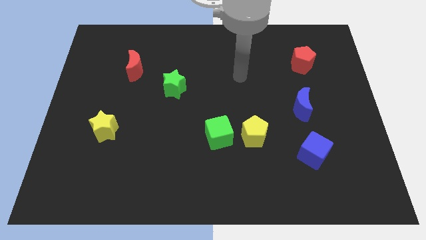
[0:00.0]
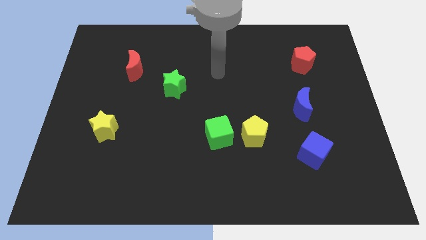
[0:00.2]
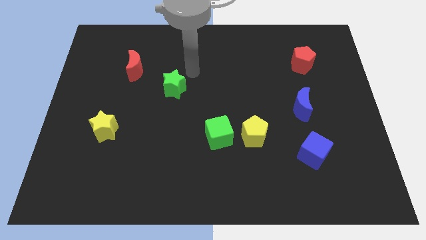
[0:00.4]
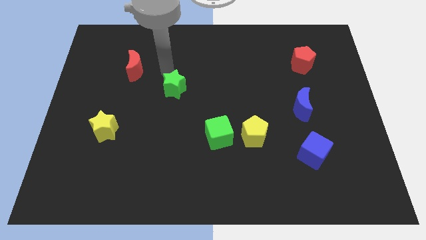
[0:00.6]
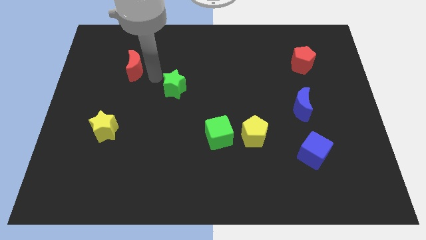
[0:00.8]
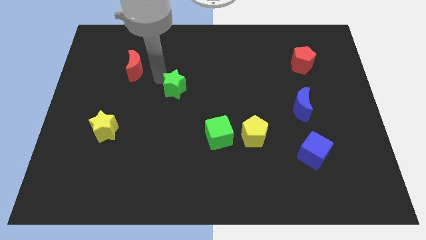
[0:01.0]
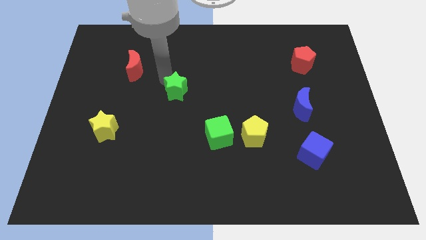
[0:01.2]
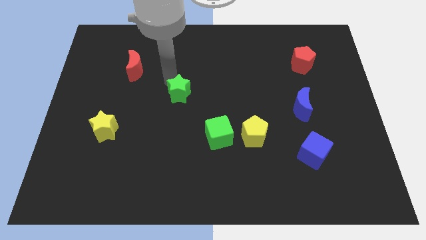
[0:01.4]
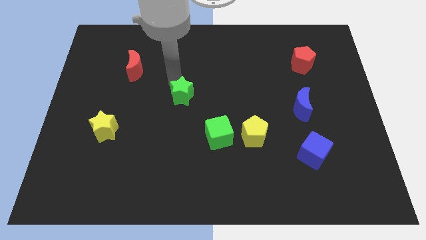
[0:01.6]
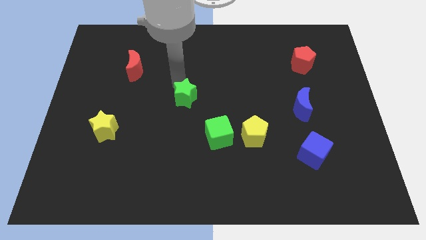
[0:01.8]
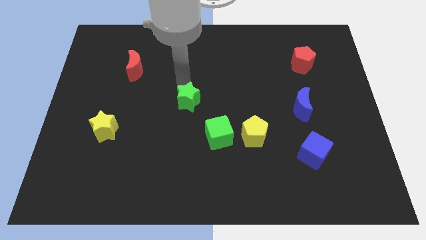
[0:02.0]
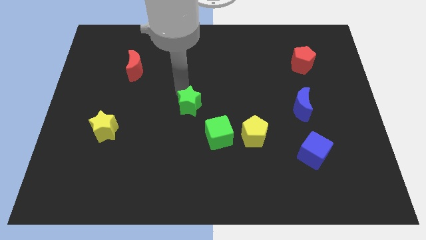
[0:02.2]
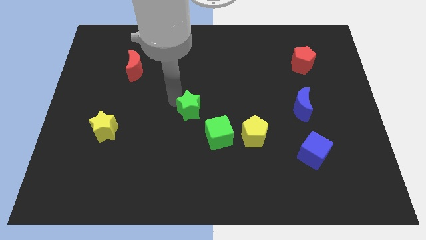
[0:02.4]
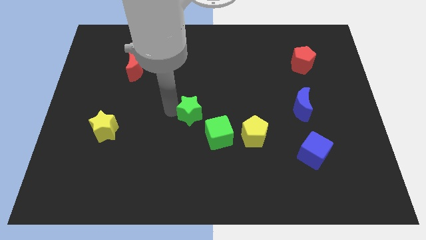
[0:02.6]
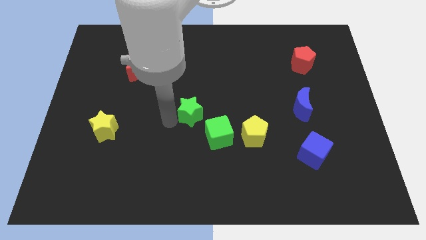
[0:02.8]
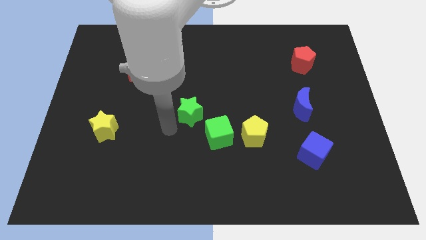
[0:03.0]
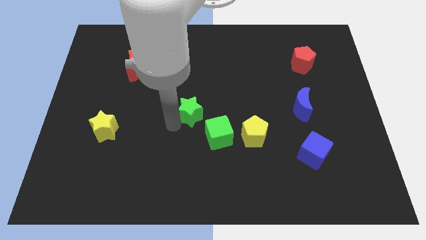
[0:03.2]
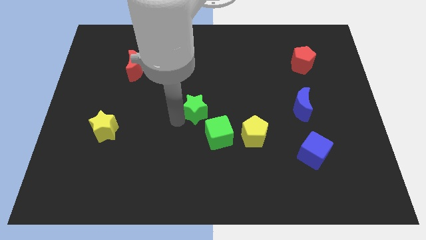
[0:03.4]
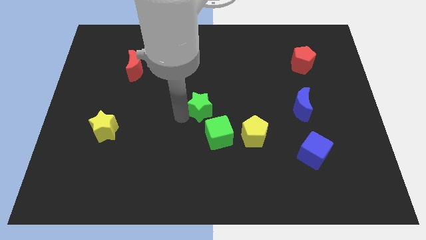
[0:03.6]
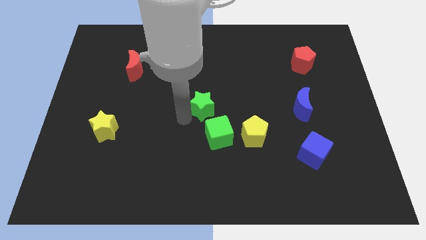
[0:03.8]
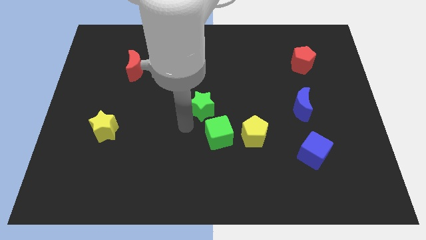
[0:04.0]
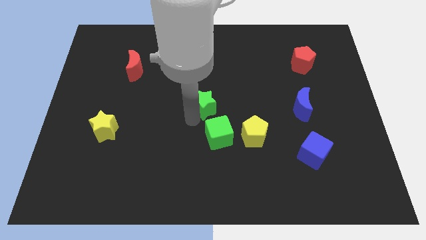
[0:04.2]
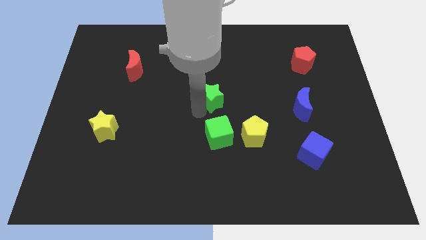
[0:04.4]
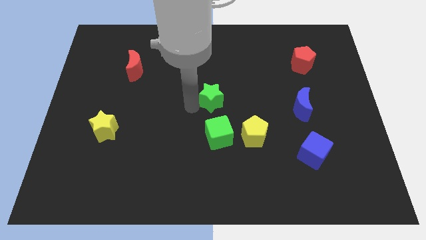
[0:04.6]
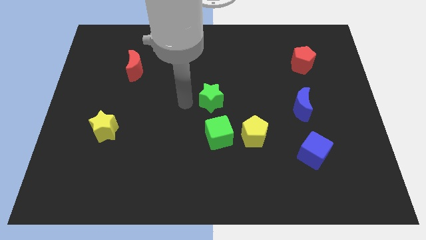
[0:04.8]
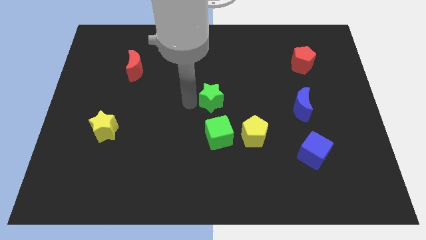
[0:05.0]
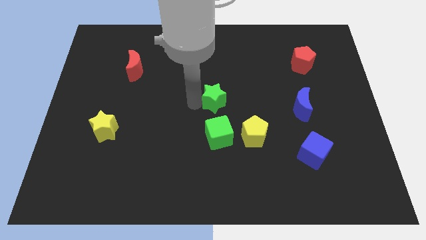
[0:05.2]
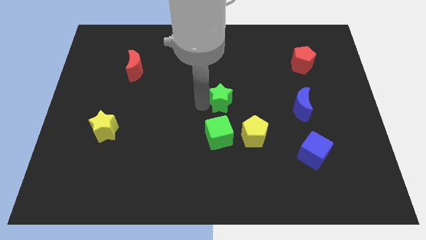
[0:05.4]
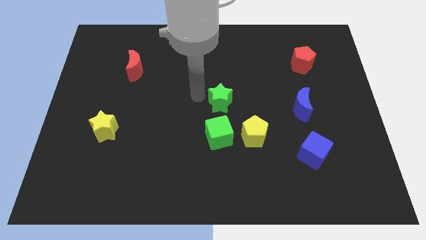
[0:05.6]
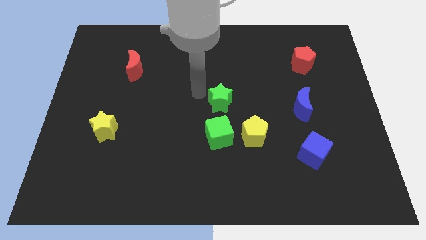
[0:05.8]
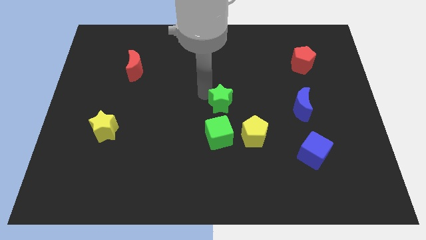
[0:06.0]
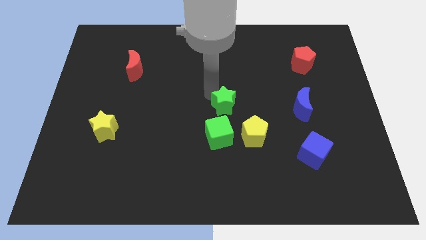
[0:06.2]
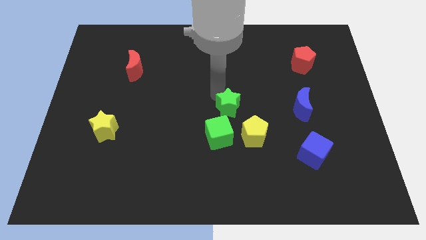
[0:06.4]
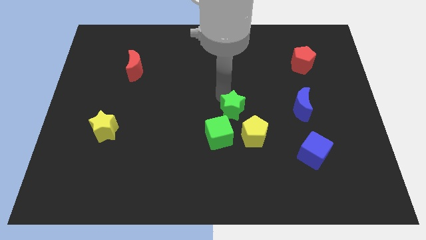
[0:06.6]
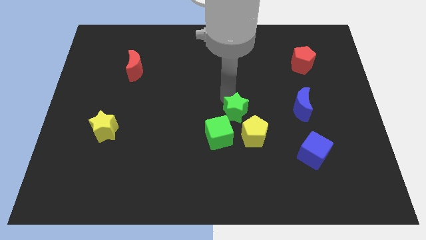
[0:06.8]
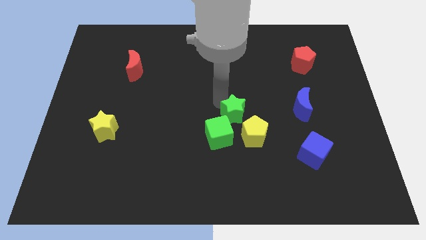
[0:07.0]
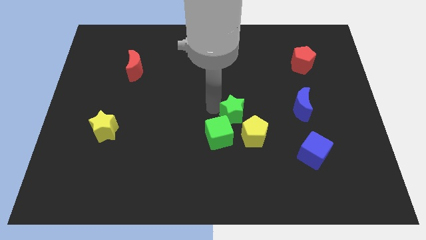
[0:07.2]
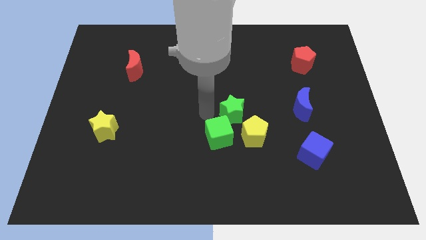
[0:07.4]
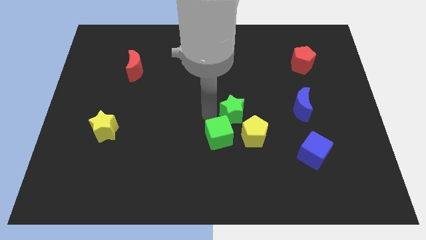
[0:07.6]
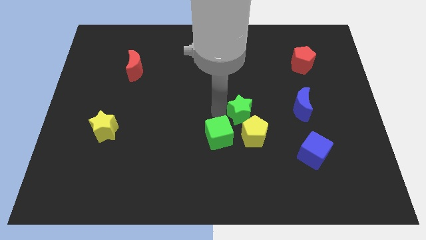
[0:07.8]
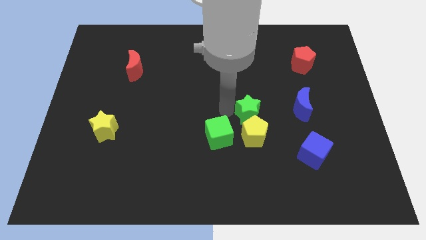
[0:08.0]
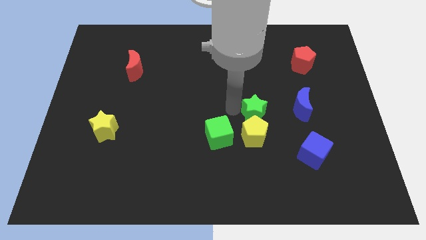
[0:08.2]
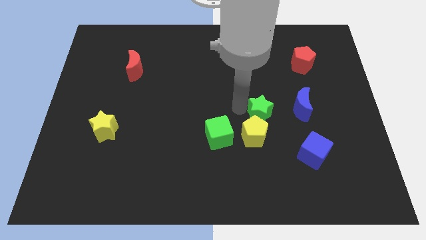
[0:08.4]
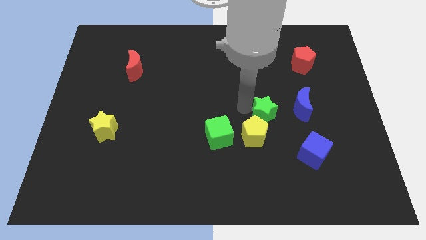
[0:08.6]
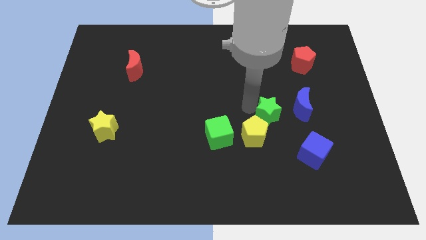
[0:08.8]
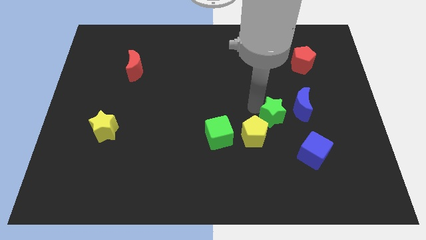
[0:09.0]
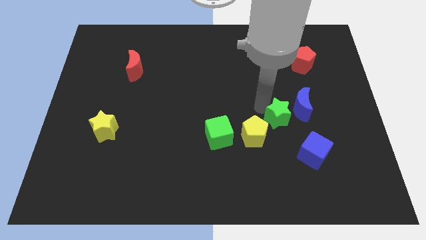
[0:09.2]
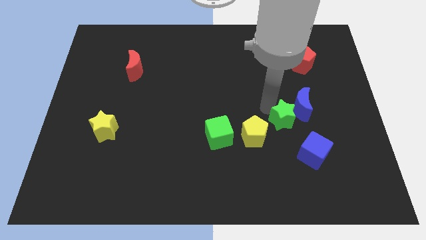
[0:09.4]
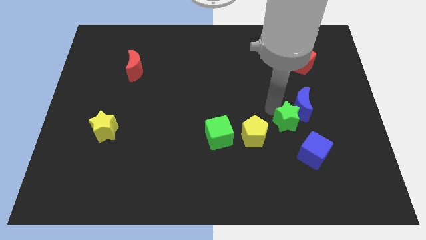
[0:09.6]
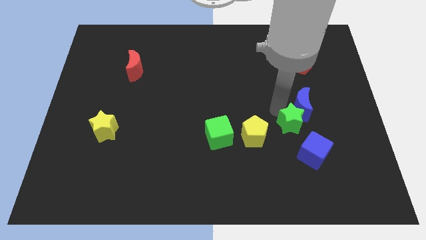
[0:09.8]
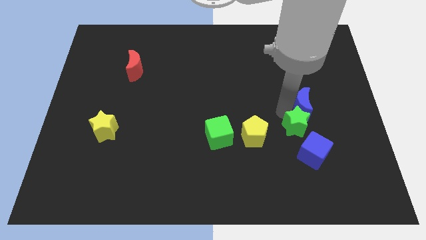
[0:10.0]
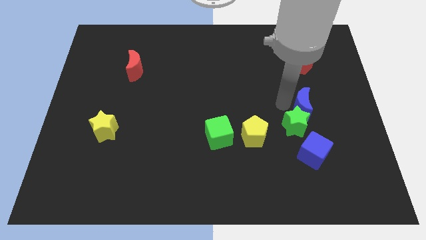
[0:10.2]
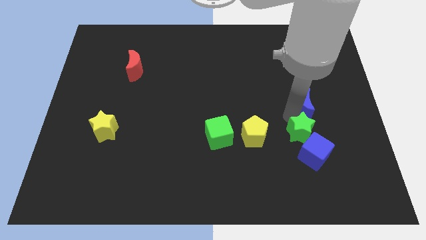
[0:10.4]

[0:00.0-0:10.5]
push the green star towards the blue cube

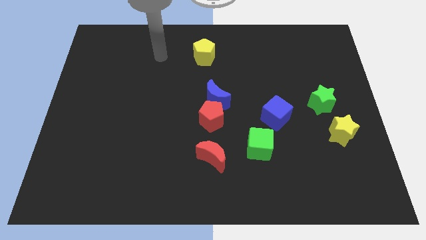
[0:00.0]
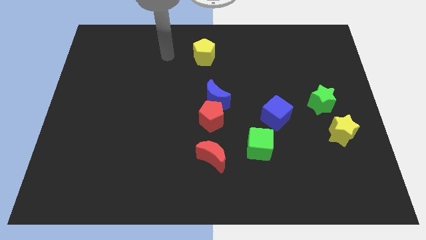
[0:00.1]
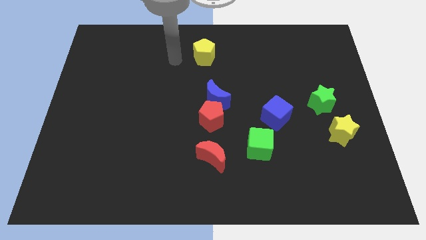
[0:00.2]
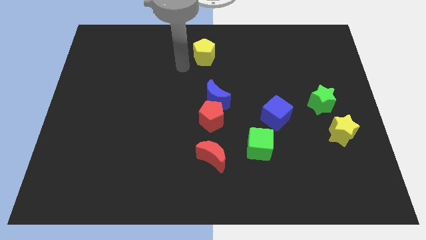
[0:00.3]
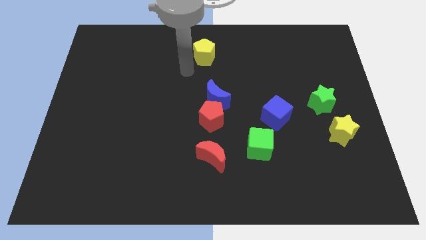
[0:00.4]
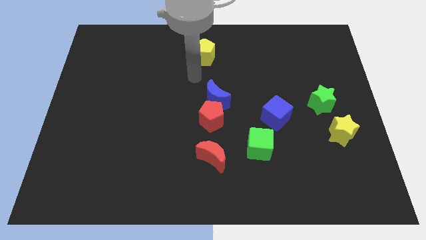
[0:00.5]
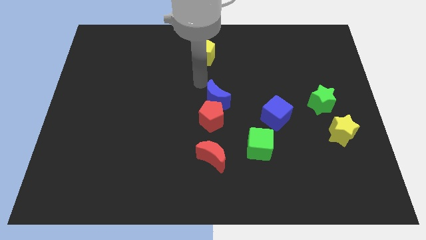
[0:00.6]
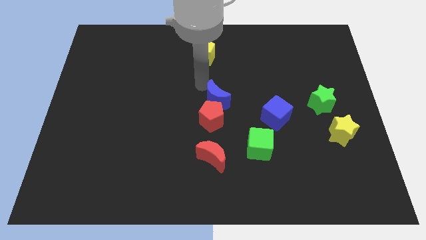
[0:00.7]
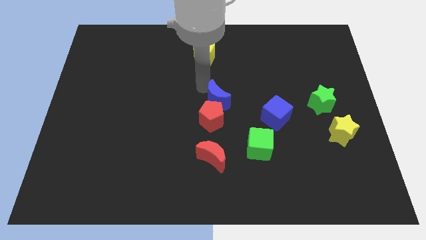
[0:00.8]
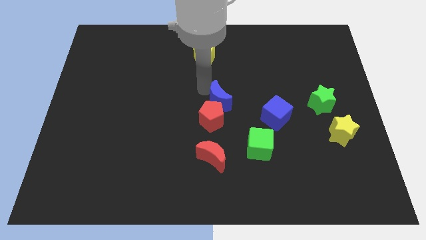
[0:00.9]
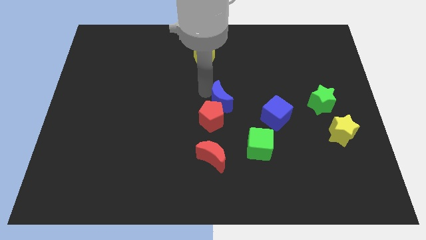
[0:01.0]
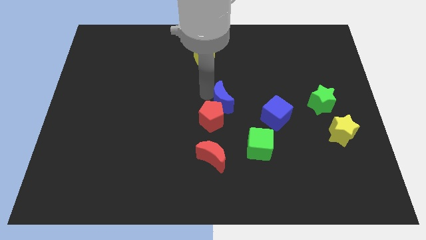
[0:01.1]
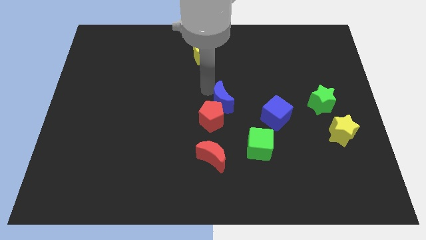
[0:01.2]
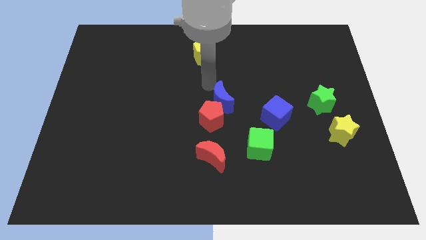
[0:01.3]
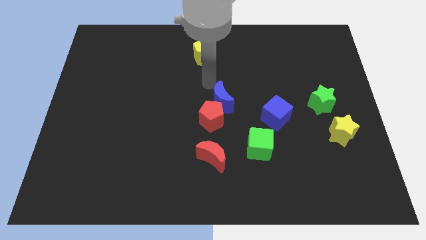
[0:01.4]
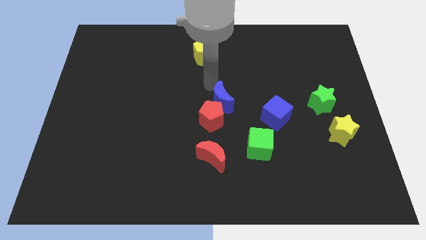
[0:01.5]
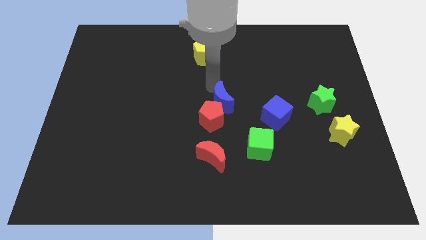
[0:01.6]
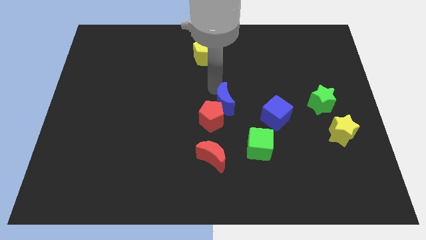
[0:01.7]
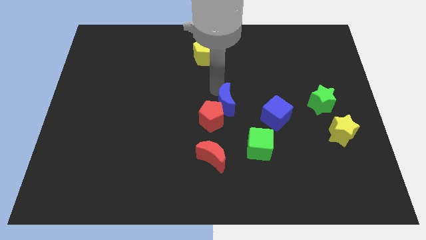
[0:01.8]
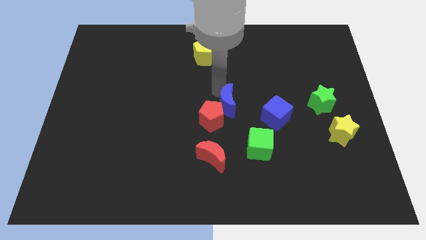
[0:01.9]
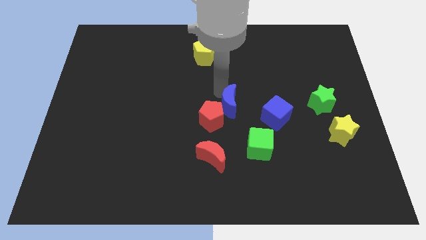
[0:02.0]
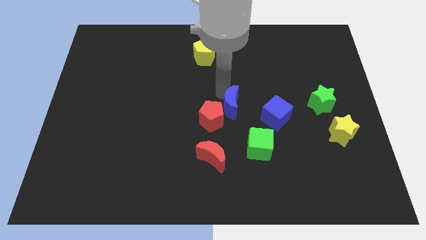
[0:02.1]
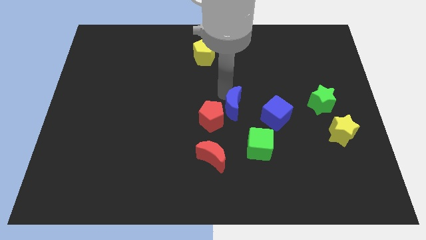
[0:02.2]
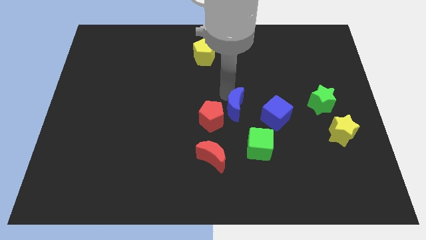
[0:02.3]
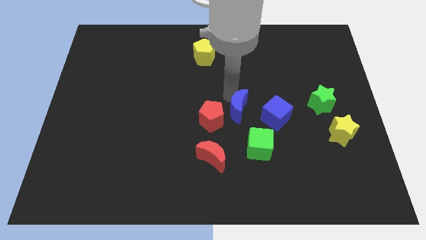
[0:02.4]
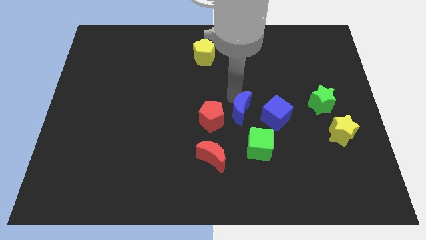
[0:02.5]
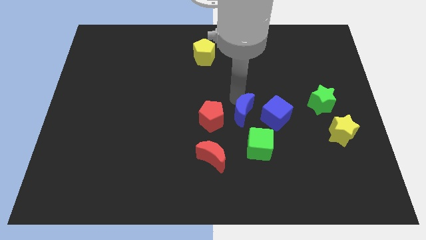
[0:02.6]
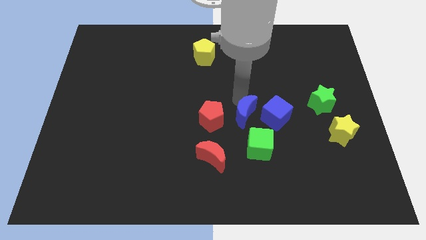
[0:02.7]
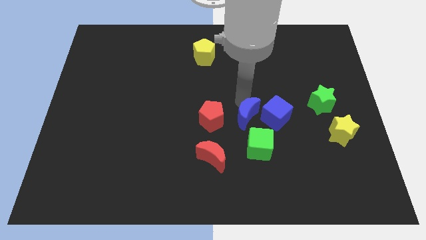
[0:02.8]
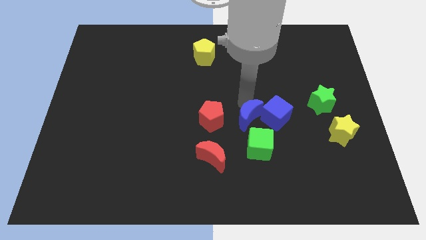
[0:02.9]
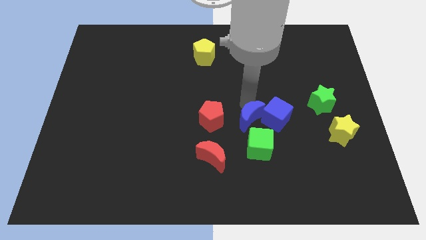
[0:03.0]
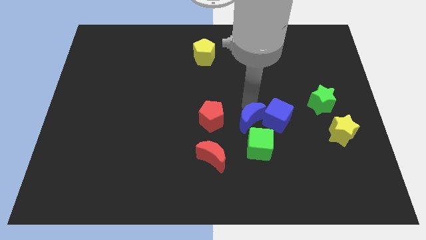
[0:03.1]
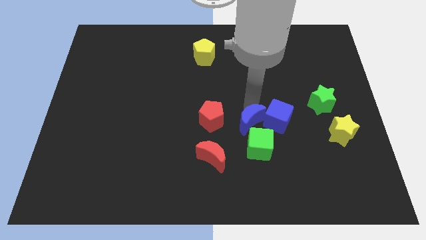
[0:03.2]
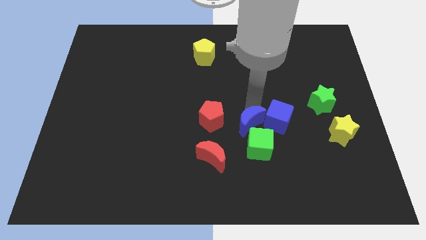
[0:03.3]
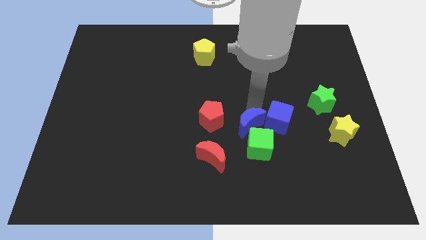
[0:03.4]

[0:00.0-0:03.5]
slide the blue moon next to the green cube
